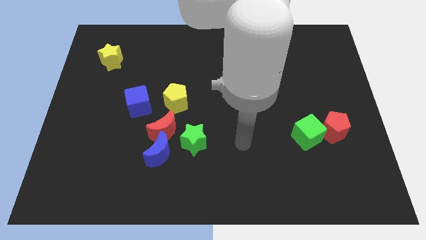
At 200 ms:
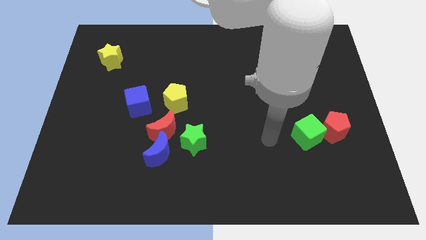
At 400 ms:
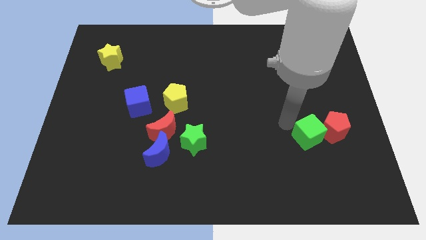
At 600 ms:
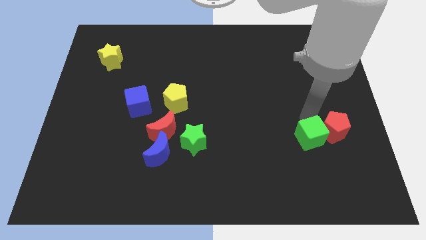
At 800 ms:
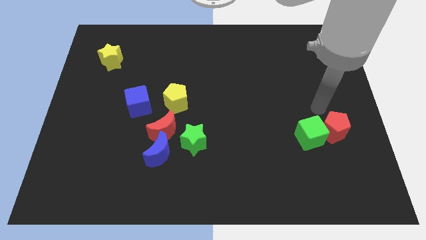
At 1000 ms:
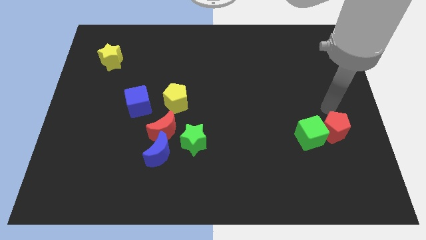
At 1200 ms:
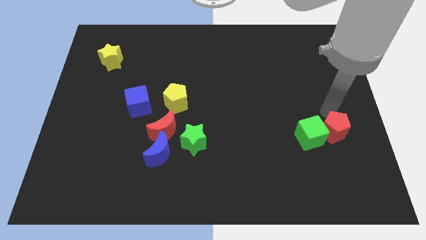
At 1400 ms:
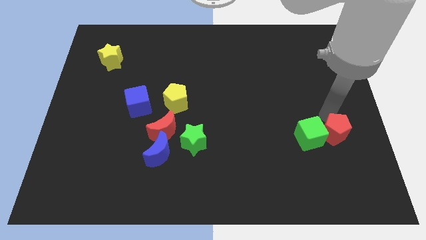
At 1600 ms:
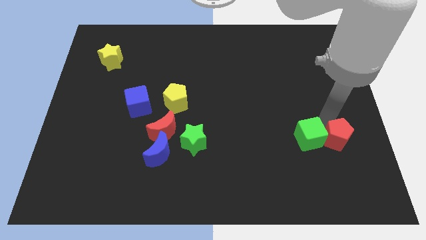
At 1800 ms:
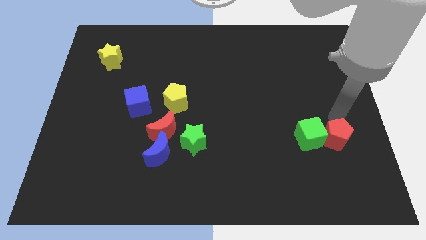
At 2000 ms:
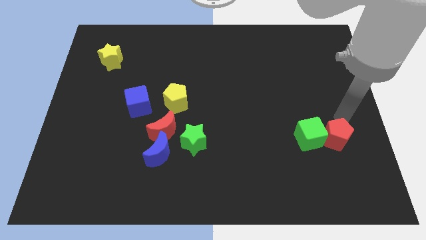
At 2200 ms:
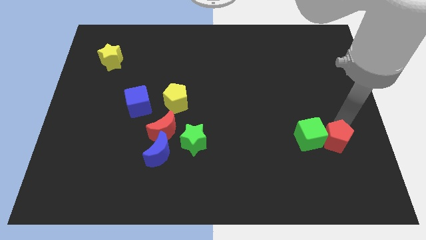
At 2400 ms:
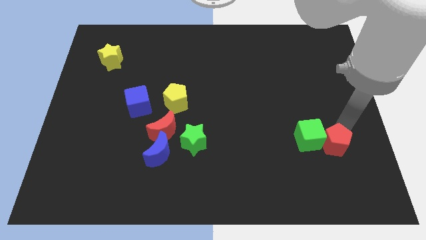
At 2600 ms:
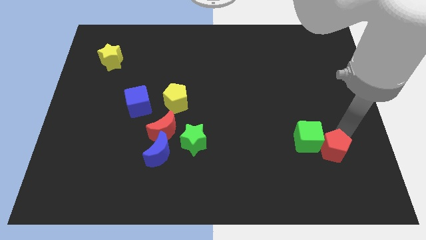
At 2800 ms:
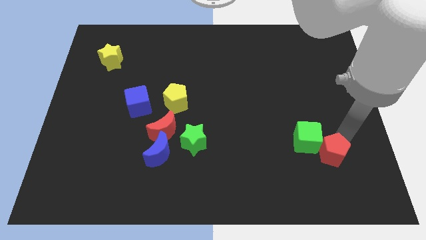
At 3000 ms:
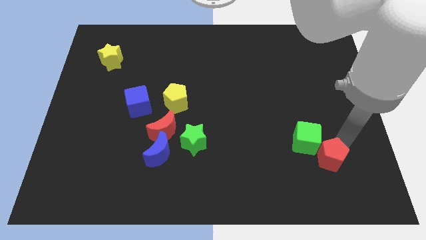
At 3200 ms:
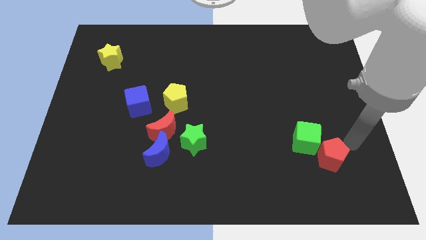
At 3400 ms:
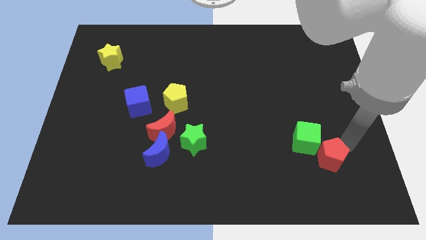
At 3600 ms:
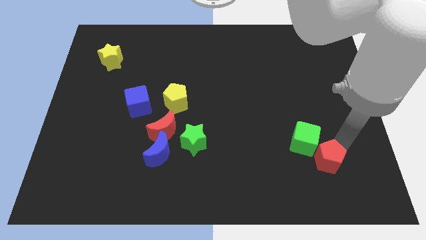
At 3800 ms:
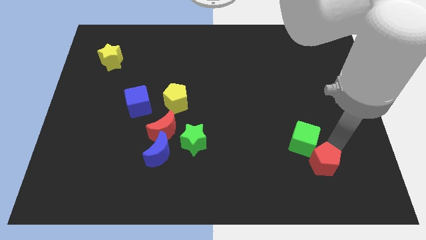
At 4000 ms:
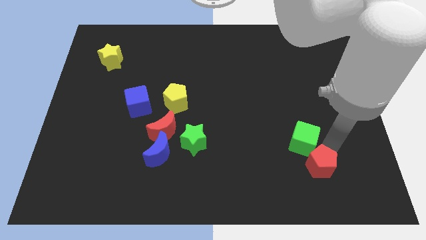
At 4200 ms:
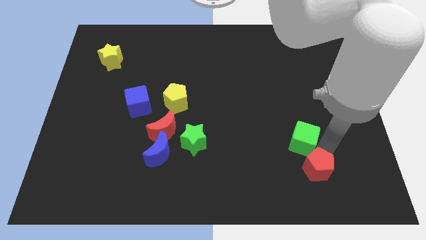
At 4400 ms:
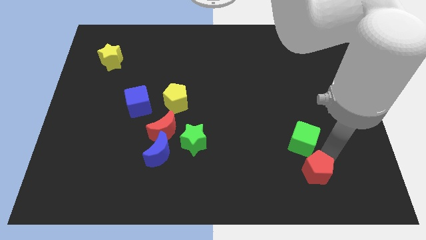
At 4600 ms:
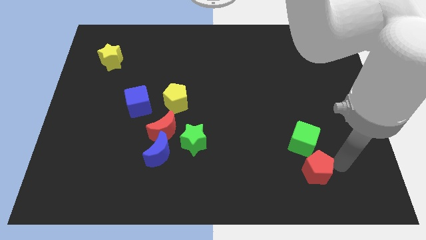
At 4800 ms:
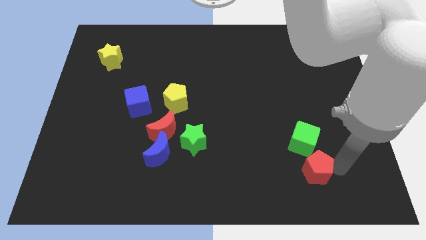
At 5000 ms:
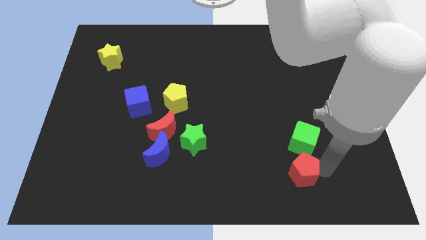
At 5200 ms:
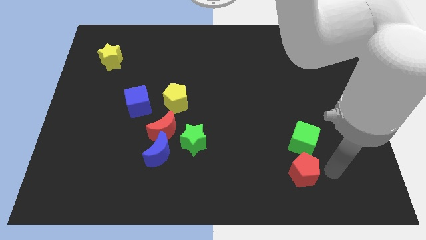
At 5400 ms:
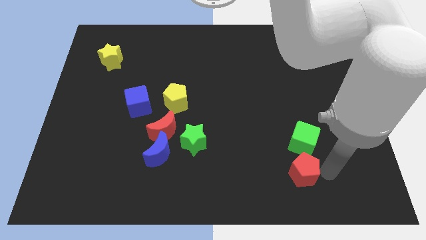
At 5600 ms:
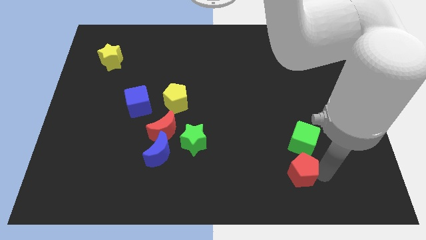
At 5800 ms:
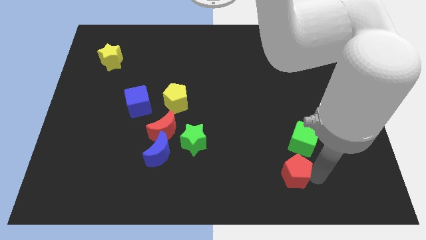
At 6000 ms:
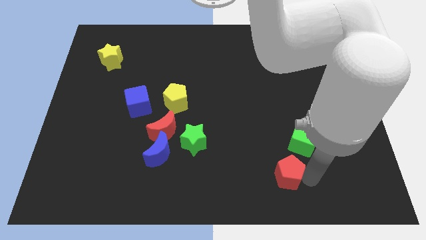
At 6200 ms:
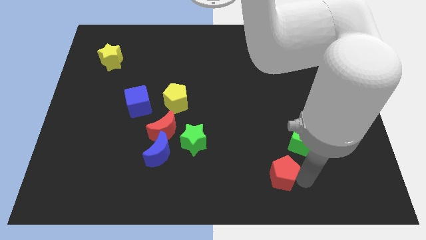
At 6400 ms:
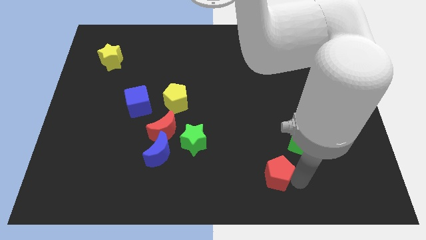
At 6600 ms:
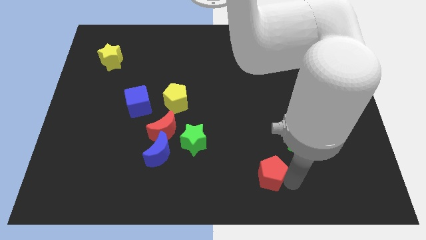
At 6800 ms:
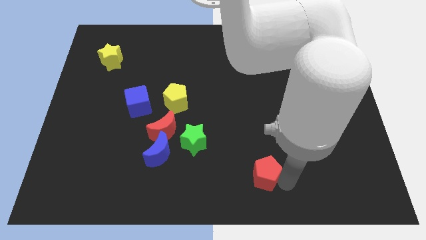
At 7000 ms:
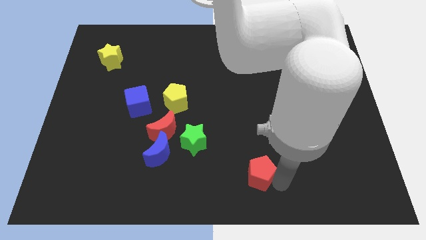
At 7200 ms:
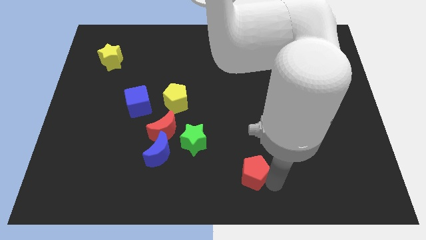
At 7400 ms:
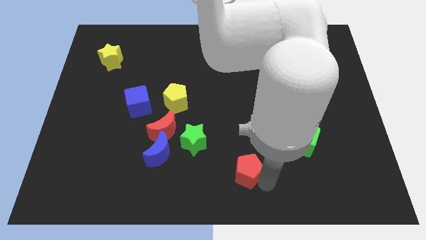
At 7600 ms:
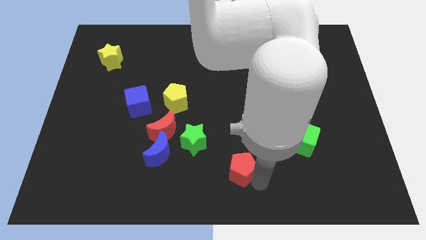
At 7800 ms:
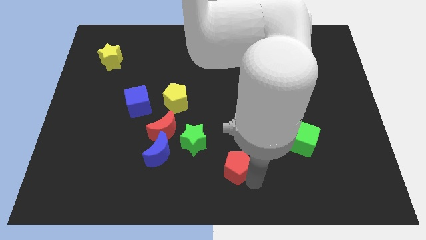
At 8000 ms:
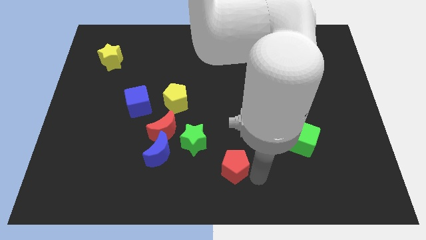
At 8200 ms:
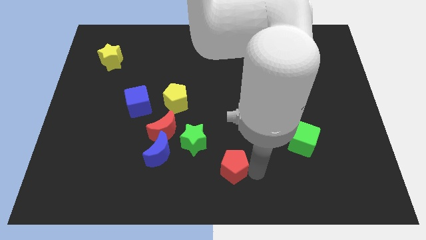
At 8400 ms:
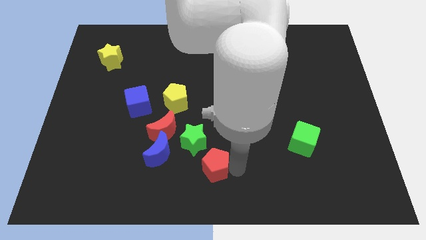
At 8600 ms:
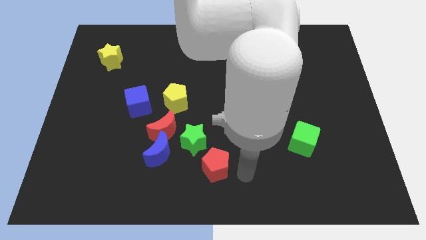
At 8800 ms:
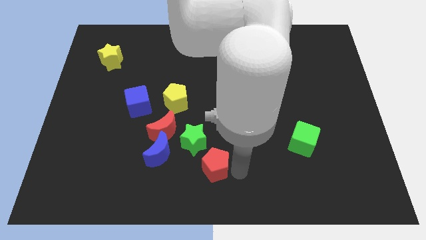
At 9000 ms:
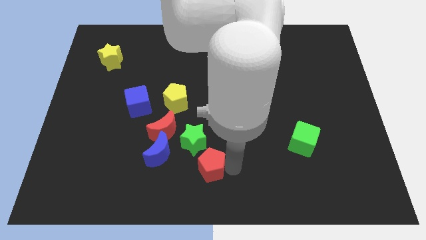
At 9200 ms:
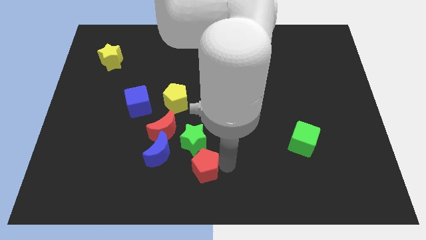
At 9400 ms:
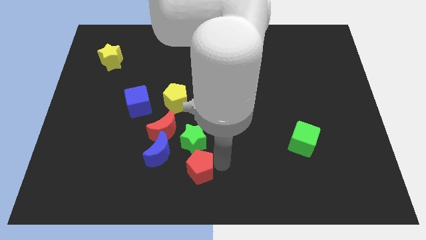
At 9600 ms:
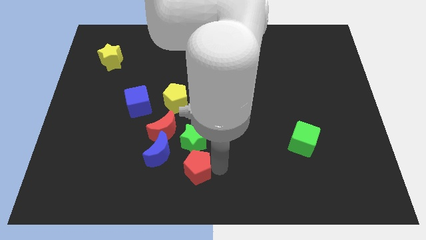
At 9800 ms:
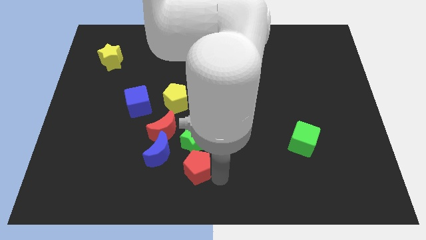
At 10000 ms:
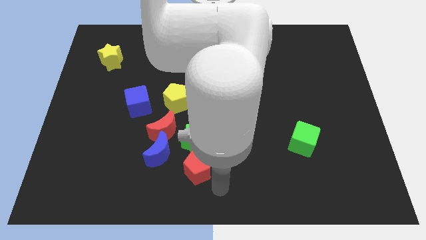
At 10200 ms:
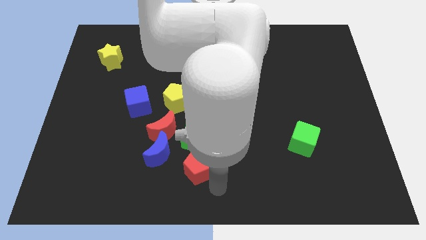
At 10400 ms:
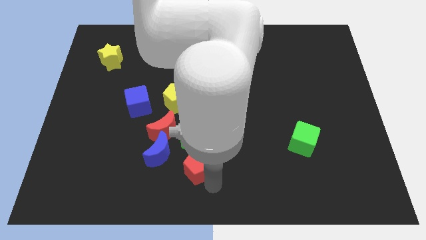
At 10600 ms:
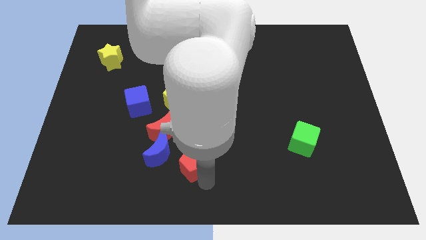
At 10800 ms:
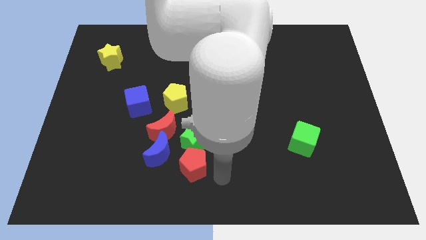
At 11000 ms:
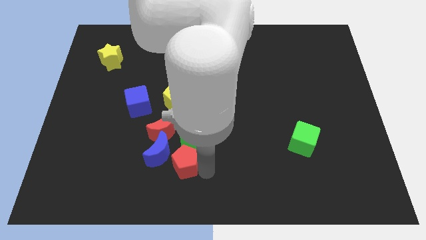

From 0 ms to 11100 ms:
slide the red pentagon next to the blue moon

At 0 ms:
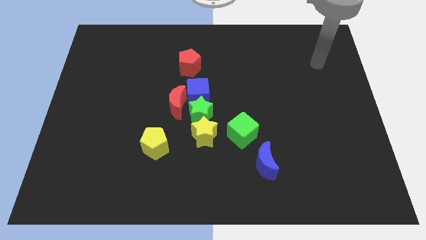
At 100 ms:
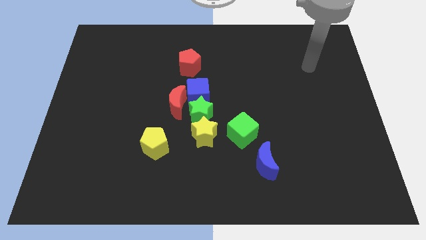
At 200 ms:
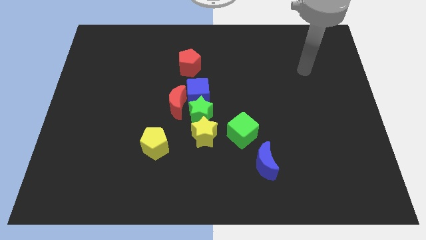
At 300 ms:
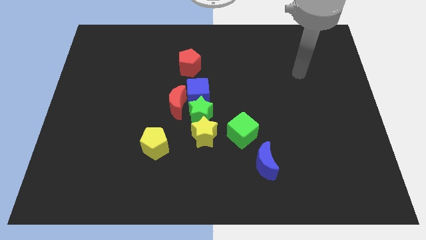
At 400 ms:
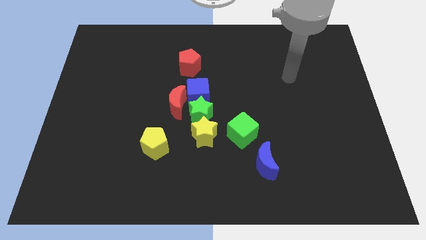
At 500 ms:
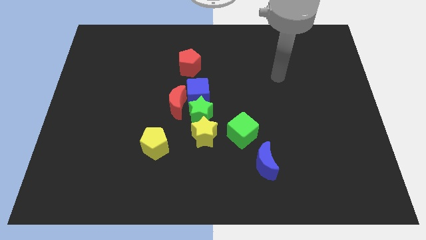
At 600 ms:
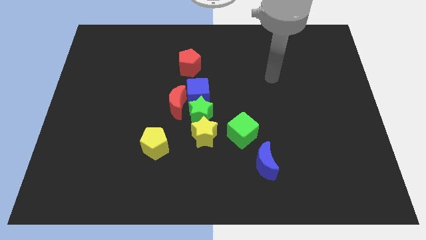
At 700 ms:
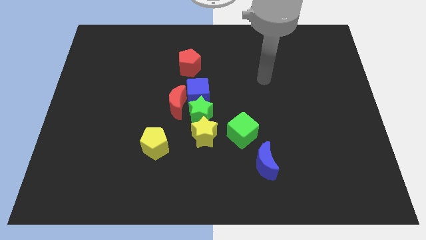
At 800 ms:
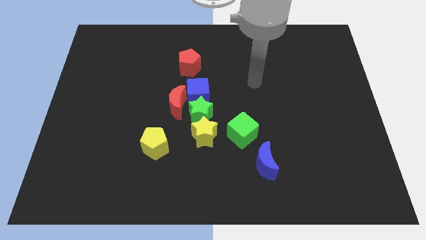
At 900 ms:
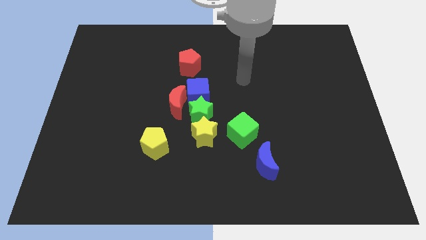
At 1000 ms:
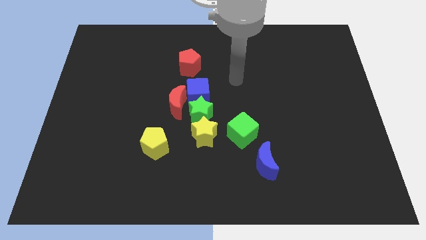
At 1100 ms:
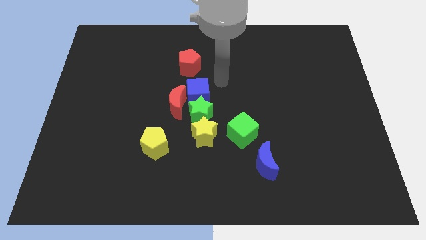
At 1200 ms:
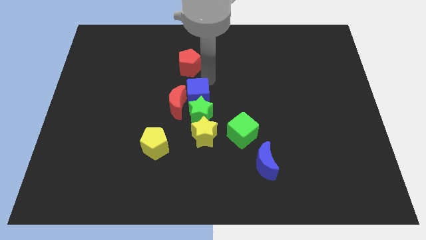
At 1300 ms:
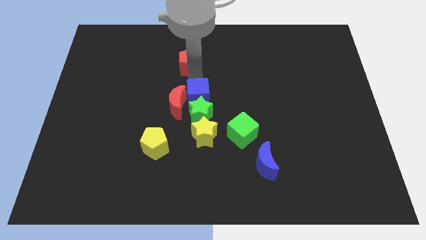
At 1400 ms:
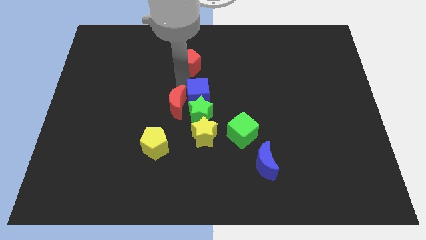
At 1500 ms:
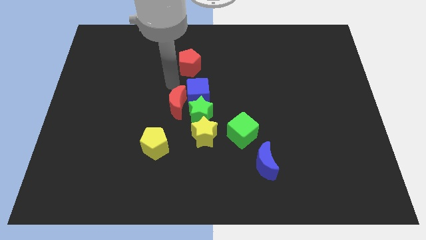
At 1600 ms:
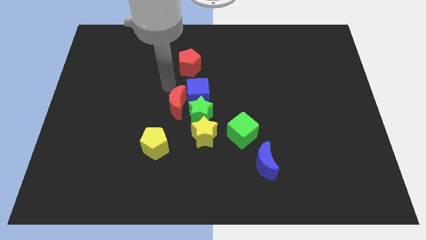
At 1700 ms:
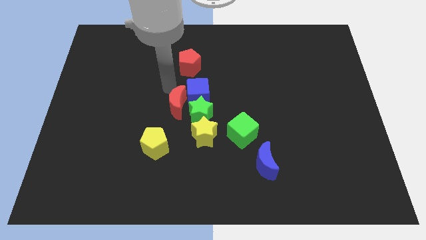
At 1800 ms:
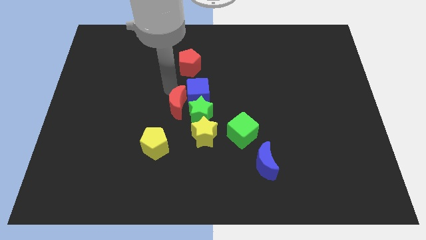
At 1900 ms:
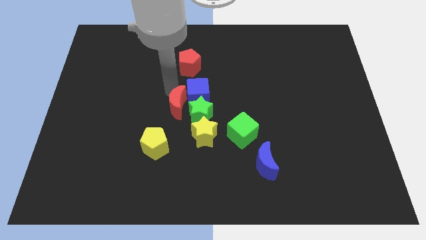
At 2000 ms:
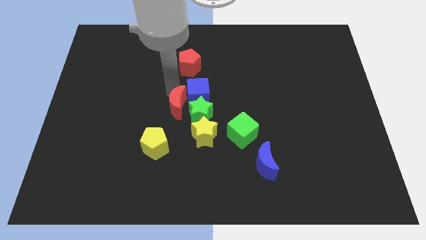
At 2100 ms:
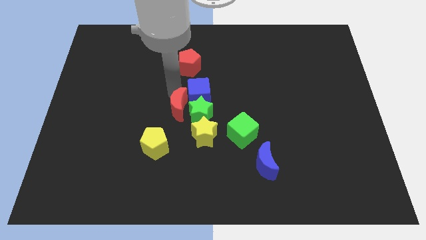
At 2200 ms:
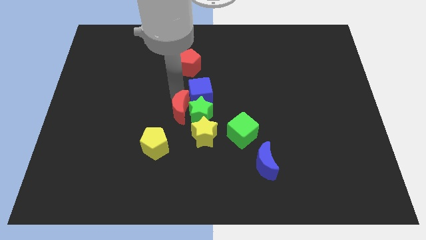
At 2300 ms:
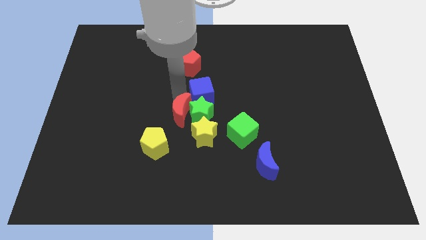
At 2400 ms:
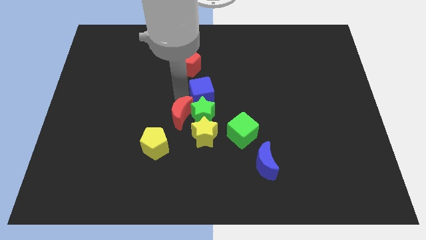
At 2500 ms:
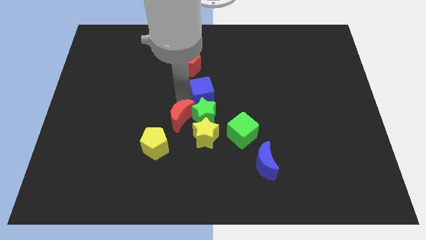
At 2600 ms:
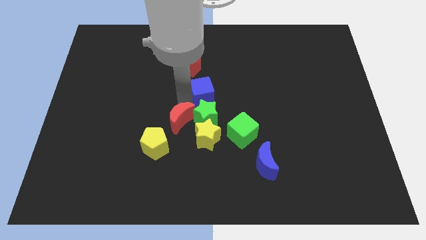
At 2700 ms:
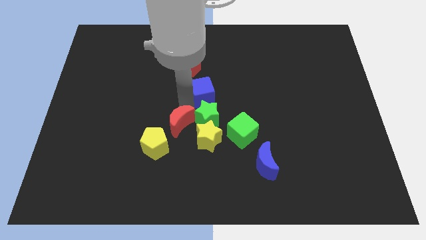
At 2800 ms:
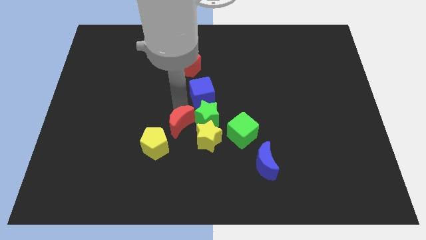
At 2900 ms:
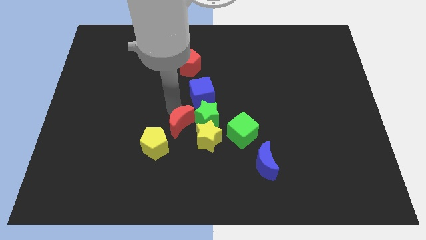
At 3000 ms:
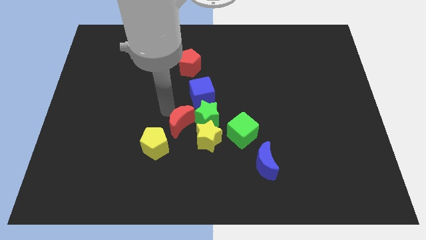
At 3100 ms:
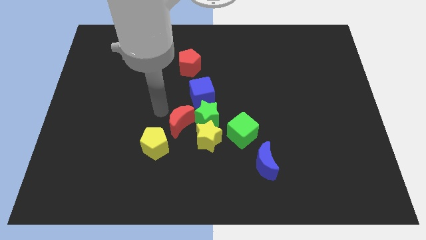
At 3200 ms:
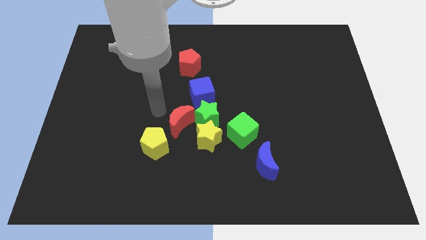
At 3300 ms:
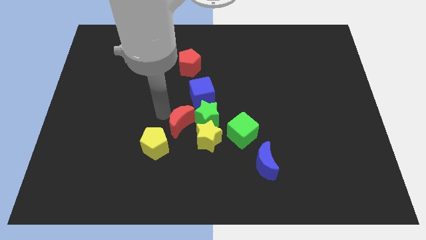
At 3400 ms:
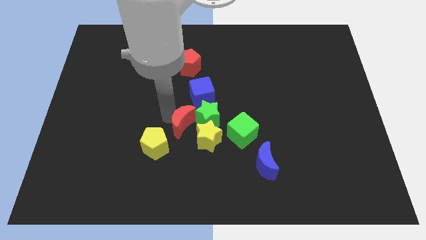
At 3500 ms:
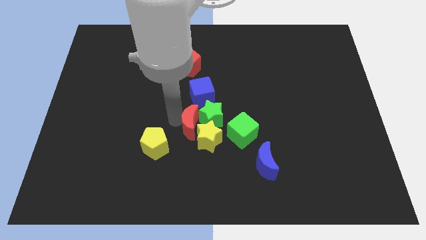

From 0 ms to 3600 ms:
slide the red moon to the yellow star
